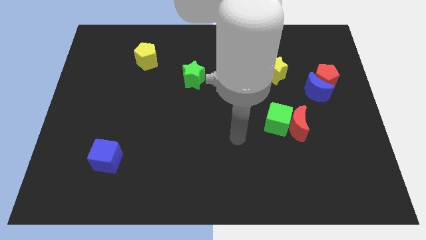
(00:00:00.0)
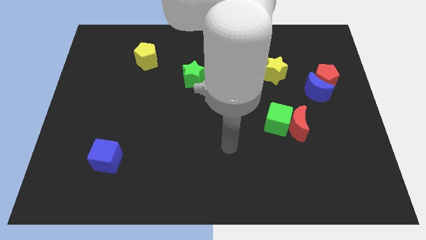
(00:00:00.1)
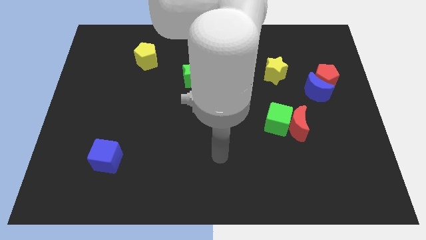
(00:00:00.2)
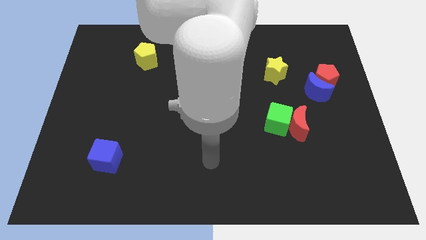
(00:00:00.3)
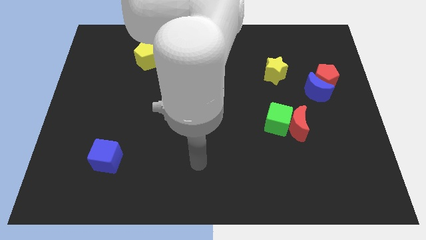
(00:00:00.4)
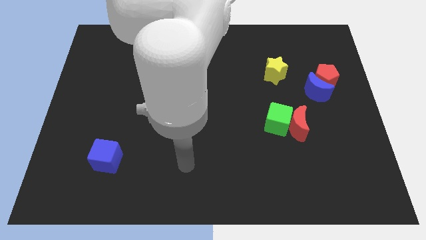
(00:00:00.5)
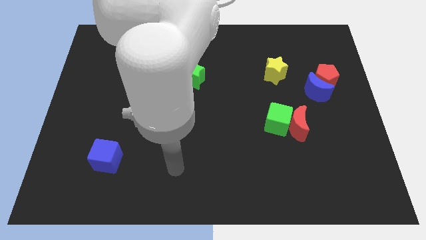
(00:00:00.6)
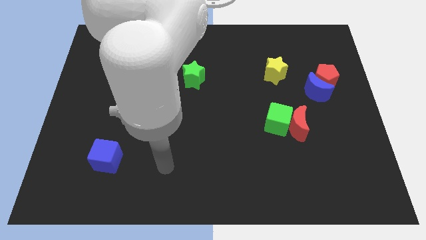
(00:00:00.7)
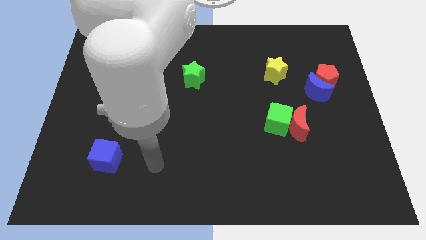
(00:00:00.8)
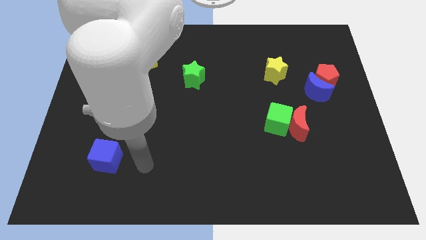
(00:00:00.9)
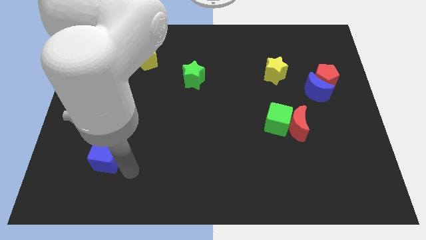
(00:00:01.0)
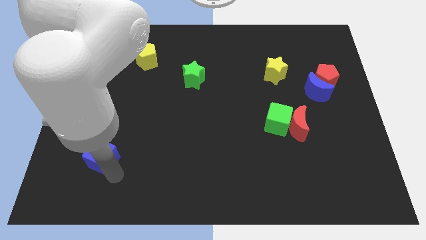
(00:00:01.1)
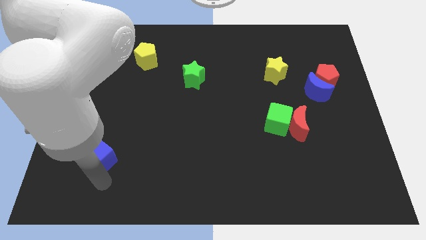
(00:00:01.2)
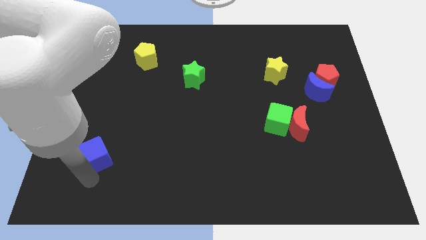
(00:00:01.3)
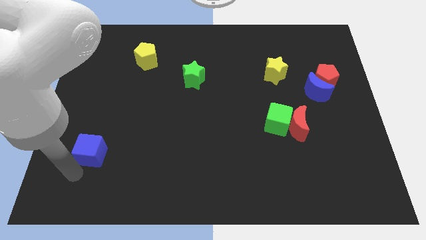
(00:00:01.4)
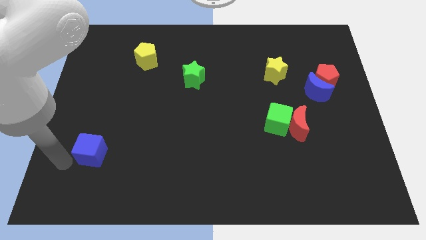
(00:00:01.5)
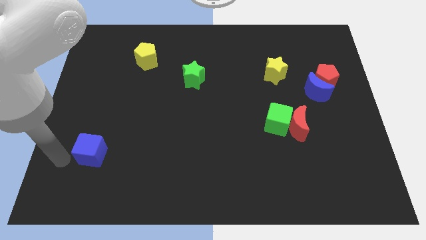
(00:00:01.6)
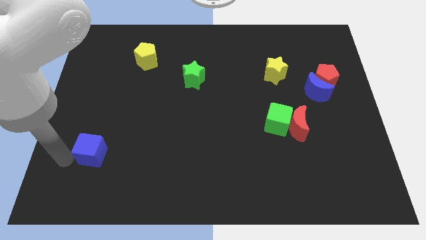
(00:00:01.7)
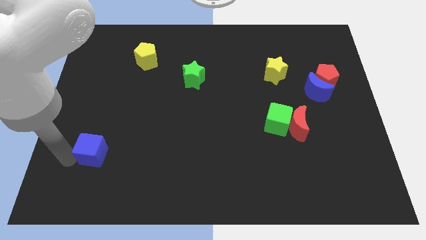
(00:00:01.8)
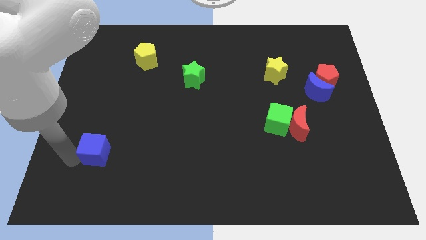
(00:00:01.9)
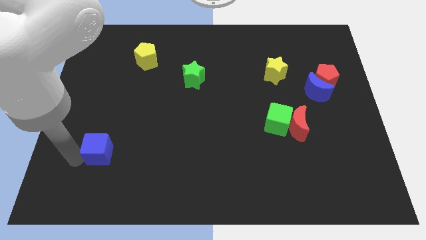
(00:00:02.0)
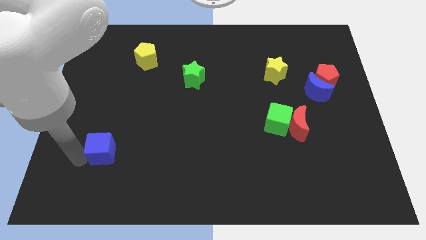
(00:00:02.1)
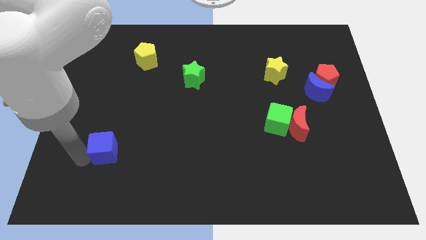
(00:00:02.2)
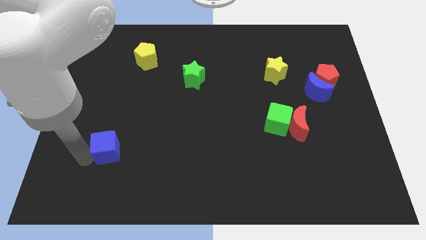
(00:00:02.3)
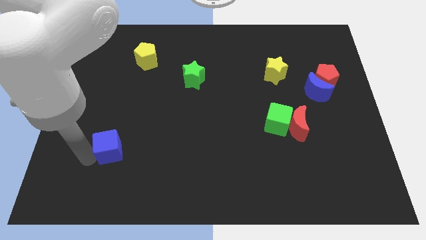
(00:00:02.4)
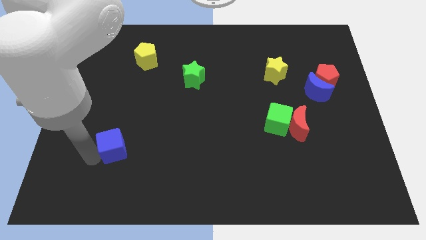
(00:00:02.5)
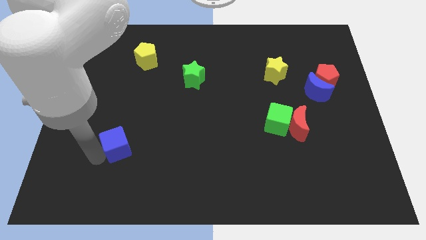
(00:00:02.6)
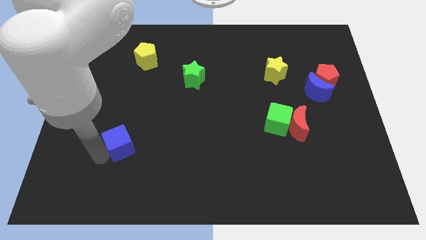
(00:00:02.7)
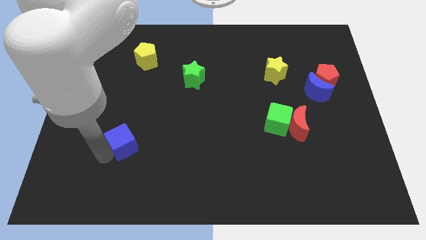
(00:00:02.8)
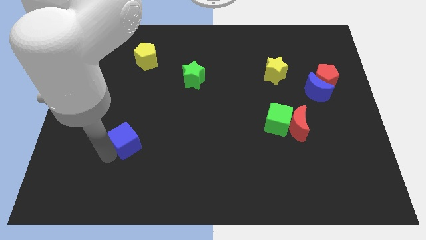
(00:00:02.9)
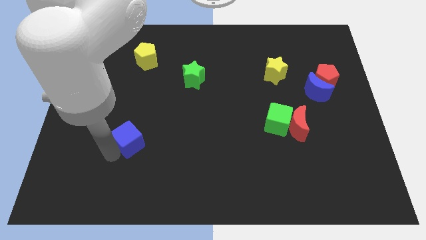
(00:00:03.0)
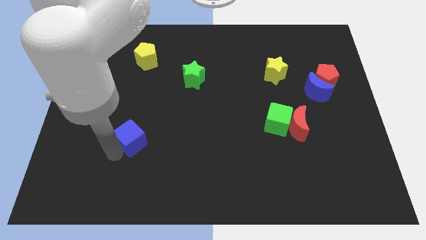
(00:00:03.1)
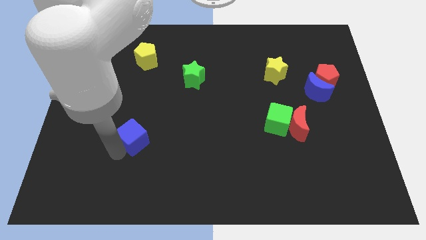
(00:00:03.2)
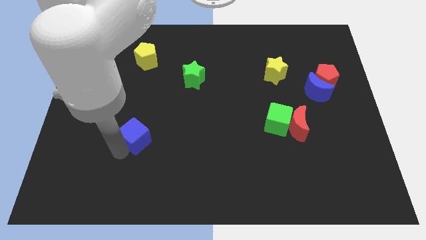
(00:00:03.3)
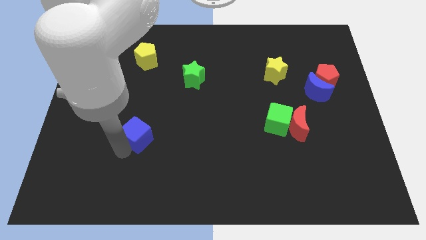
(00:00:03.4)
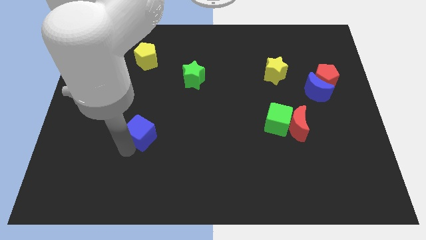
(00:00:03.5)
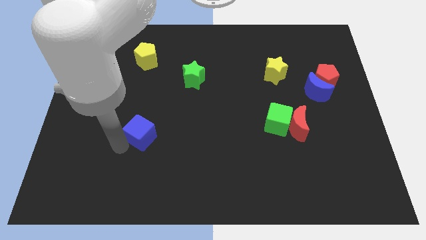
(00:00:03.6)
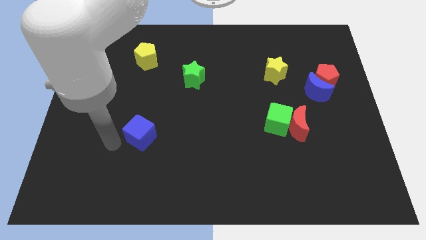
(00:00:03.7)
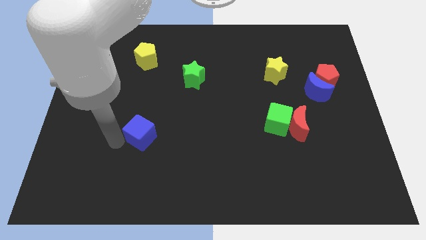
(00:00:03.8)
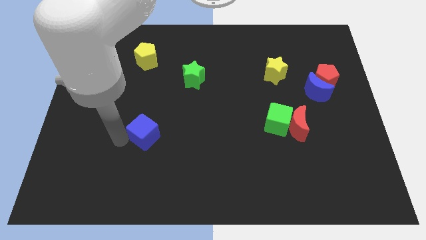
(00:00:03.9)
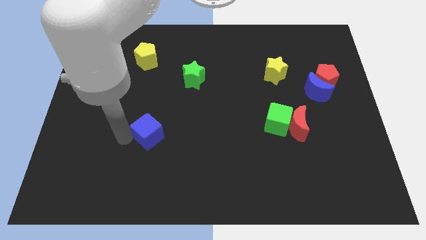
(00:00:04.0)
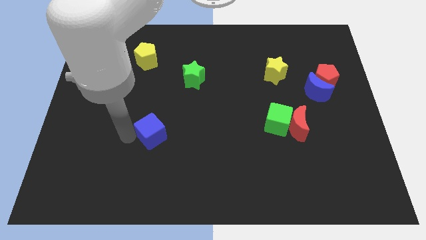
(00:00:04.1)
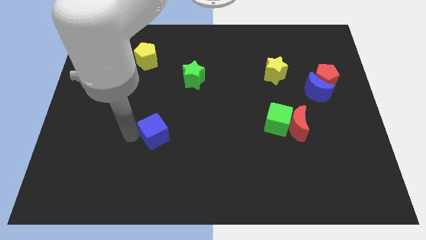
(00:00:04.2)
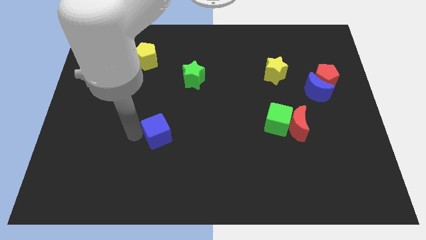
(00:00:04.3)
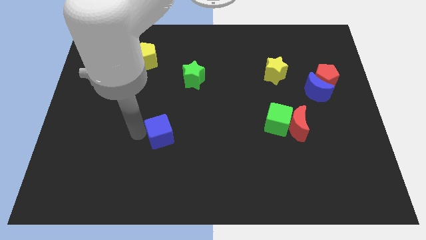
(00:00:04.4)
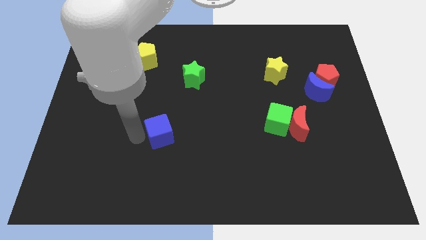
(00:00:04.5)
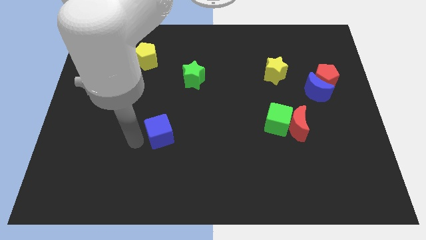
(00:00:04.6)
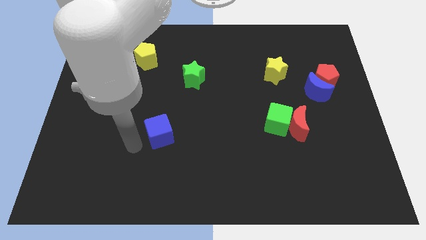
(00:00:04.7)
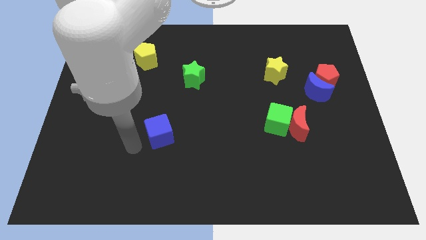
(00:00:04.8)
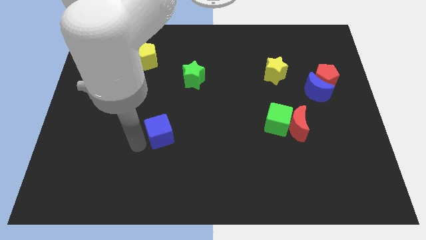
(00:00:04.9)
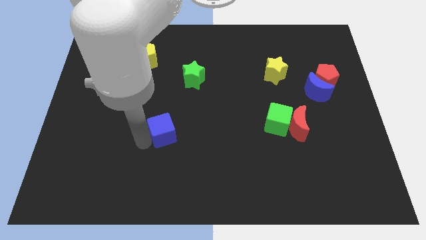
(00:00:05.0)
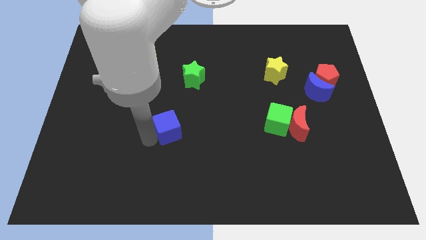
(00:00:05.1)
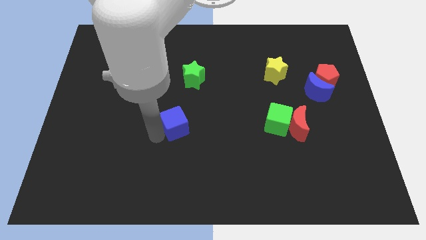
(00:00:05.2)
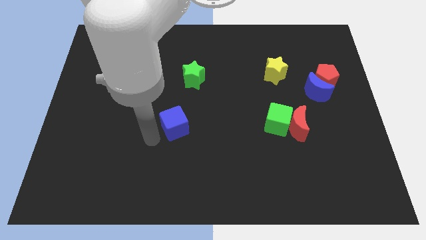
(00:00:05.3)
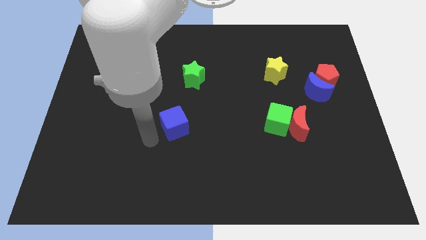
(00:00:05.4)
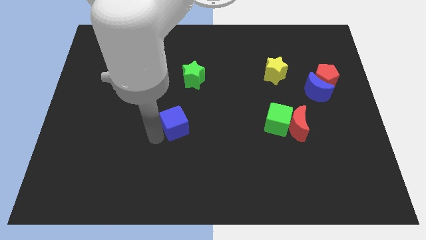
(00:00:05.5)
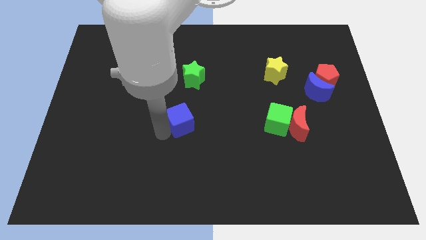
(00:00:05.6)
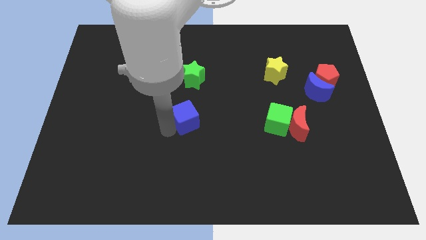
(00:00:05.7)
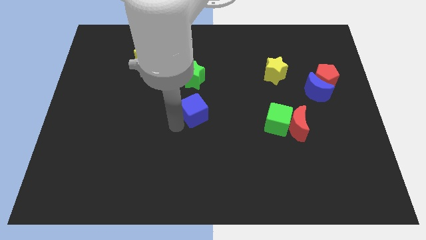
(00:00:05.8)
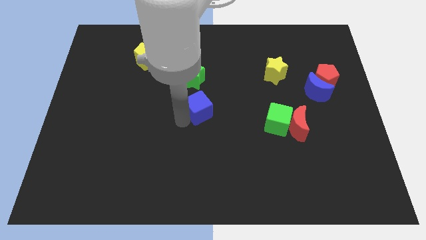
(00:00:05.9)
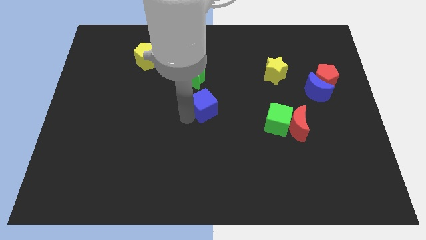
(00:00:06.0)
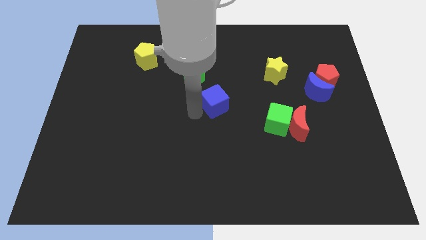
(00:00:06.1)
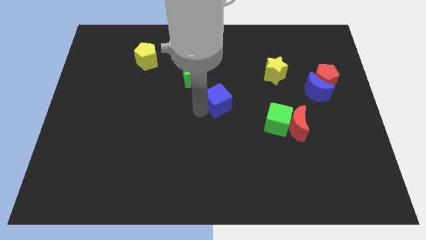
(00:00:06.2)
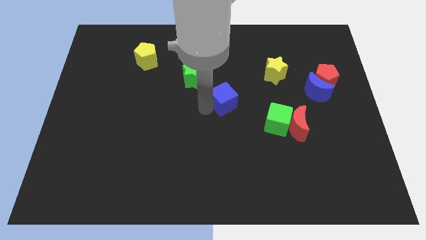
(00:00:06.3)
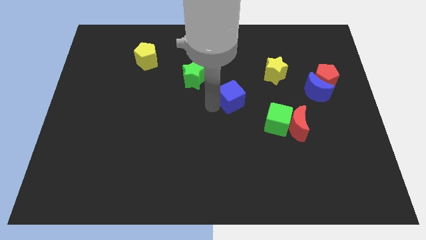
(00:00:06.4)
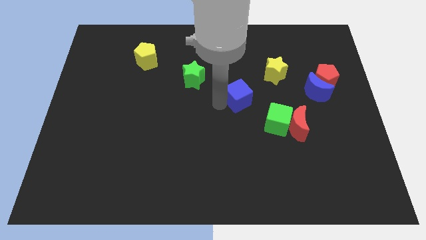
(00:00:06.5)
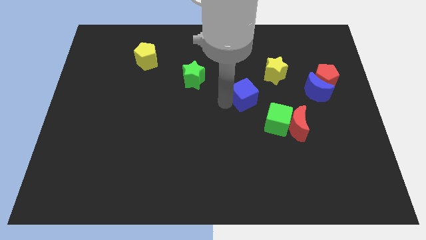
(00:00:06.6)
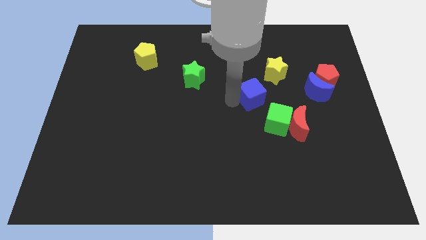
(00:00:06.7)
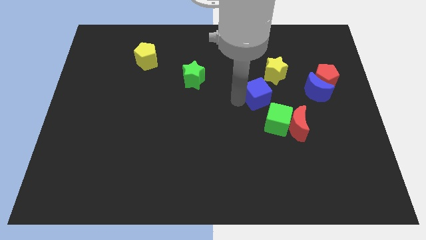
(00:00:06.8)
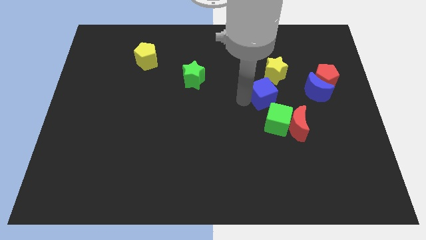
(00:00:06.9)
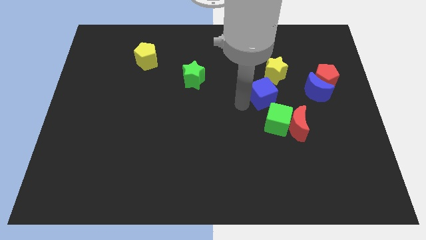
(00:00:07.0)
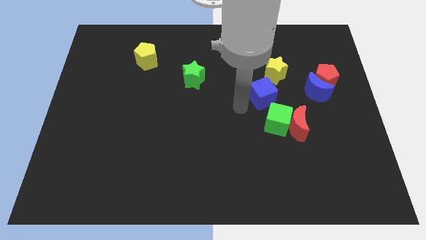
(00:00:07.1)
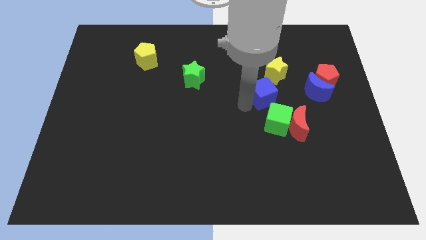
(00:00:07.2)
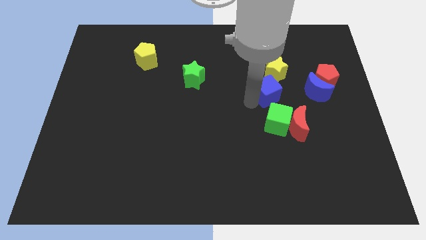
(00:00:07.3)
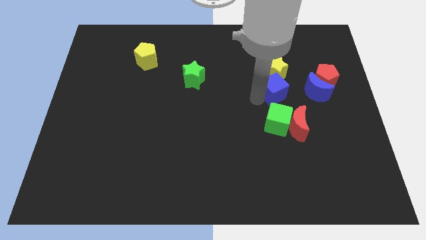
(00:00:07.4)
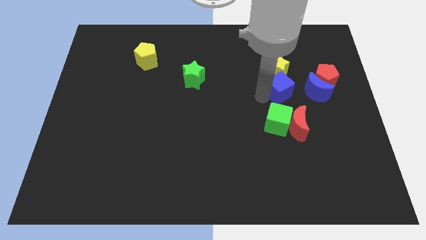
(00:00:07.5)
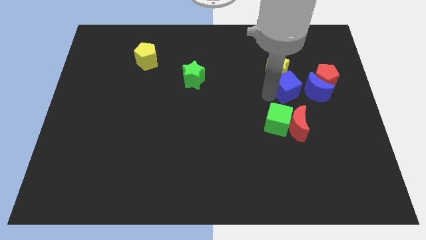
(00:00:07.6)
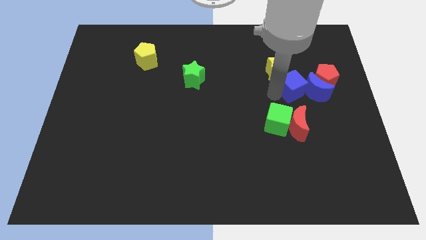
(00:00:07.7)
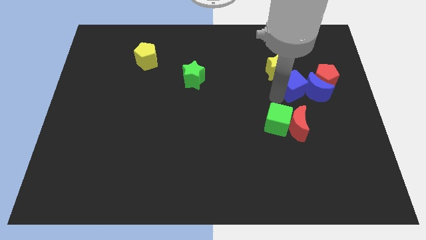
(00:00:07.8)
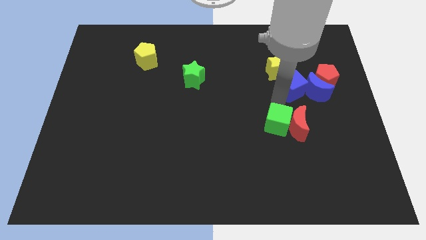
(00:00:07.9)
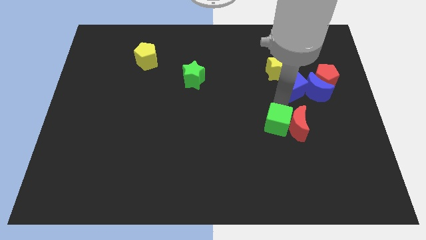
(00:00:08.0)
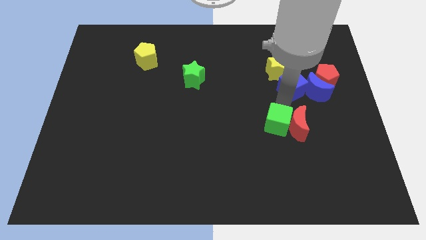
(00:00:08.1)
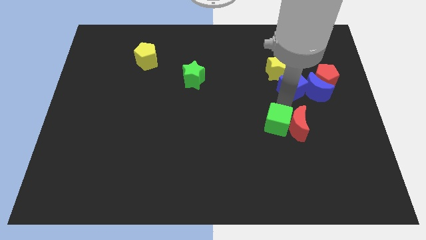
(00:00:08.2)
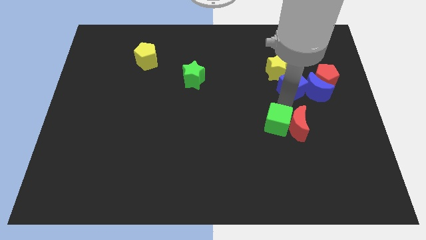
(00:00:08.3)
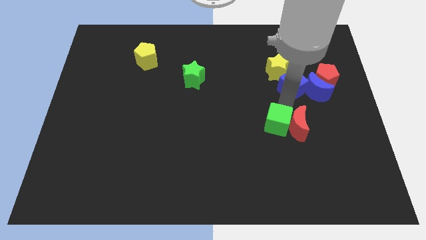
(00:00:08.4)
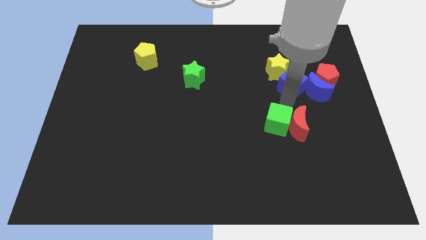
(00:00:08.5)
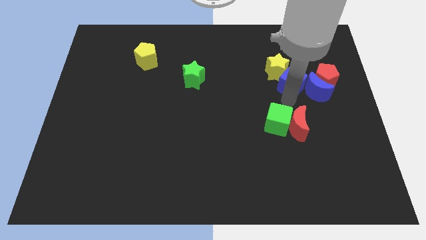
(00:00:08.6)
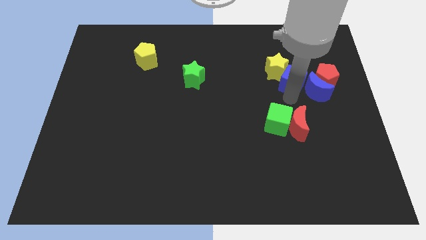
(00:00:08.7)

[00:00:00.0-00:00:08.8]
put the blue cube to the right of the yellow star
